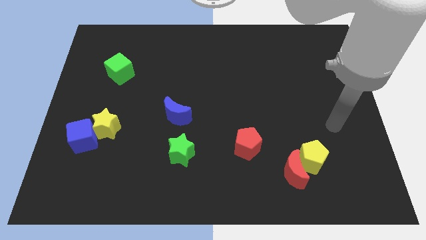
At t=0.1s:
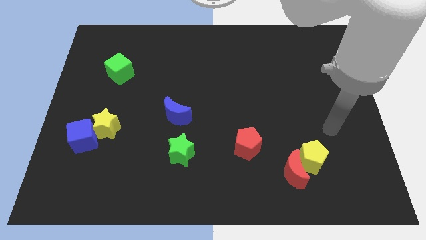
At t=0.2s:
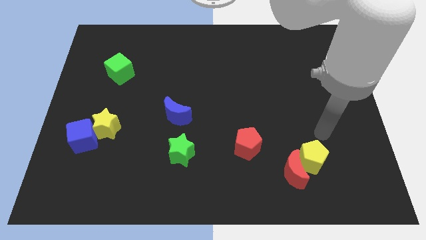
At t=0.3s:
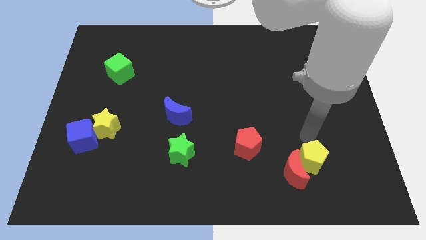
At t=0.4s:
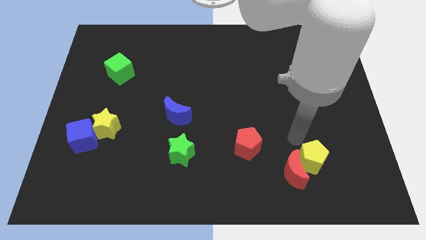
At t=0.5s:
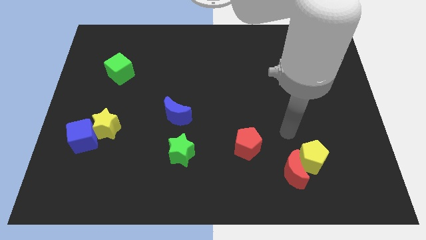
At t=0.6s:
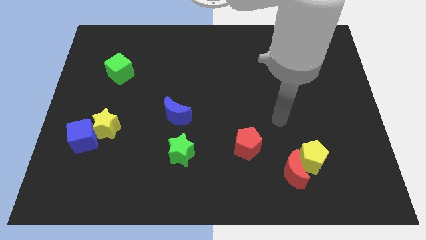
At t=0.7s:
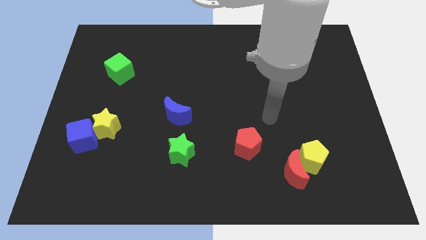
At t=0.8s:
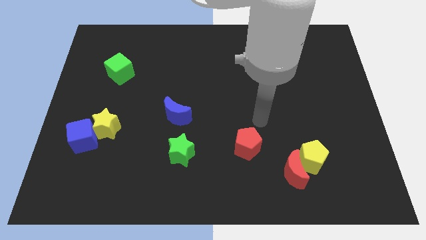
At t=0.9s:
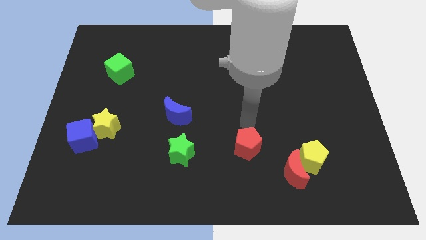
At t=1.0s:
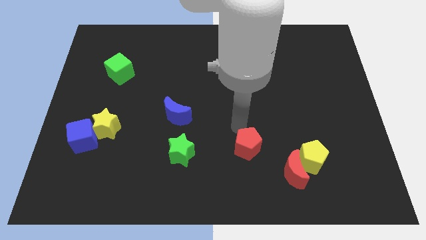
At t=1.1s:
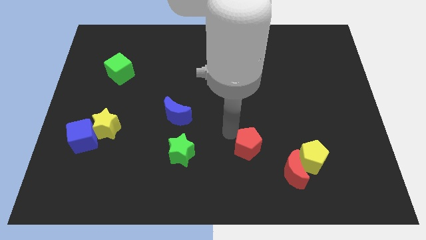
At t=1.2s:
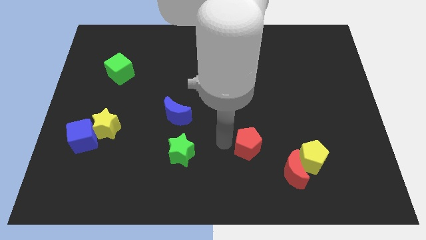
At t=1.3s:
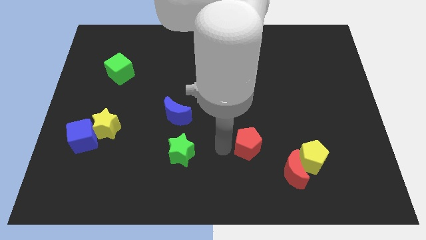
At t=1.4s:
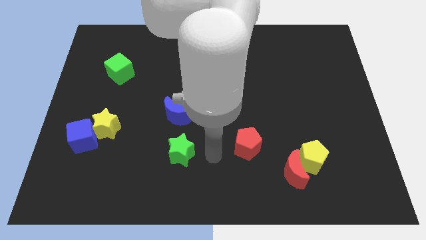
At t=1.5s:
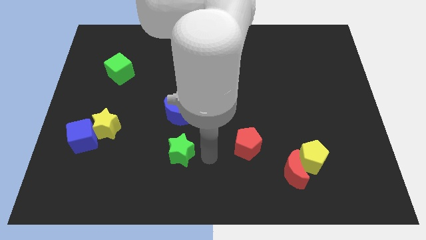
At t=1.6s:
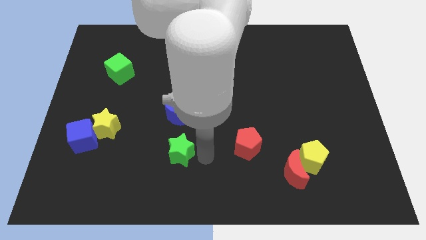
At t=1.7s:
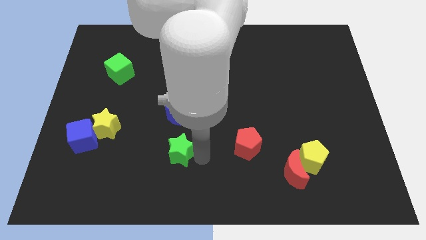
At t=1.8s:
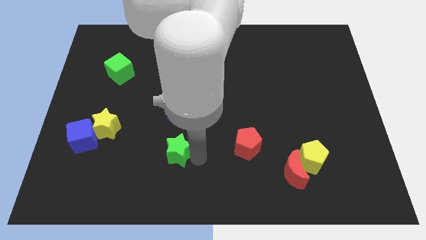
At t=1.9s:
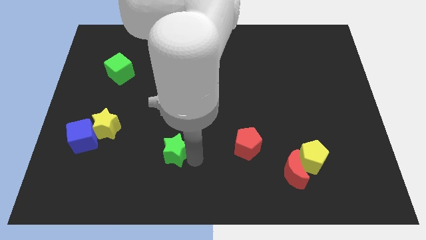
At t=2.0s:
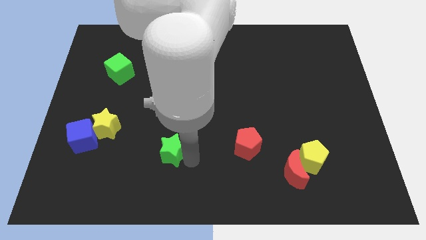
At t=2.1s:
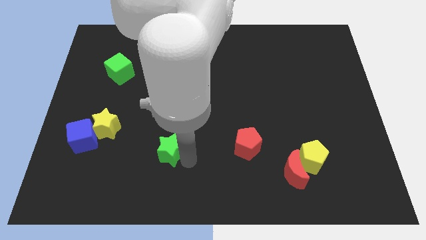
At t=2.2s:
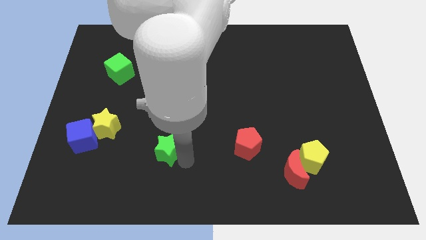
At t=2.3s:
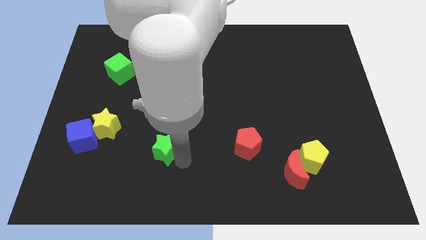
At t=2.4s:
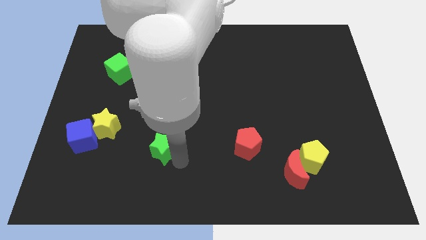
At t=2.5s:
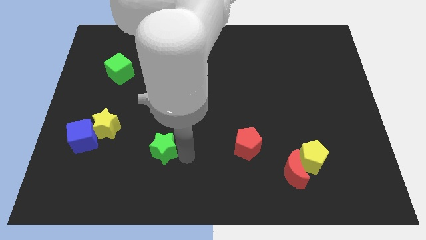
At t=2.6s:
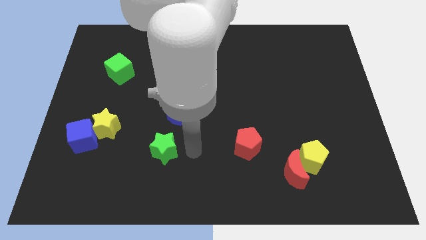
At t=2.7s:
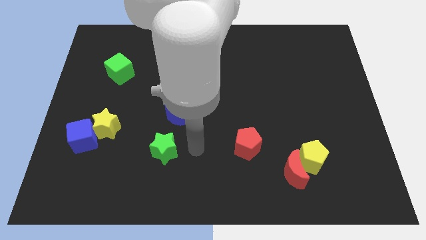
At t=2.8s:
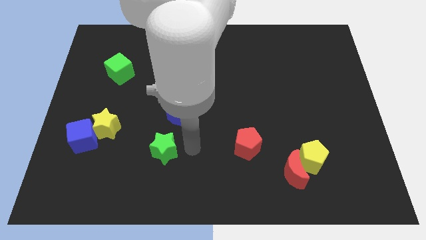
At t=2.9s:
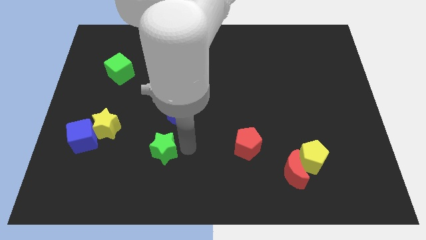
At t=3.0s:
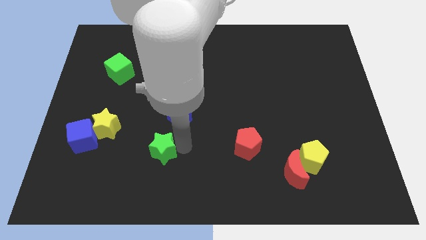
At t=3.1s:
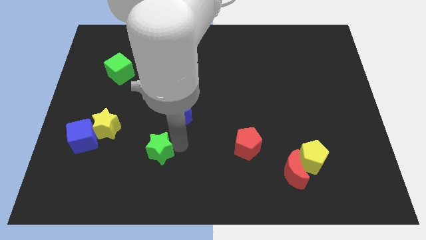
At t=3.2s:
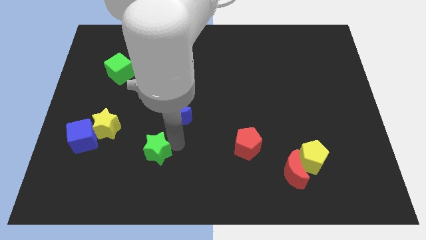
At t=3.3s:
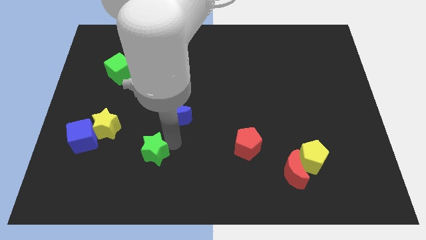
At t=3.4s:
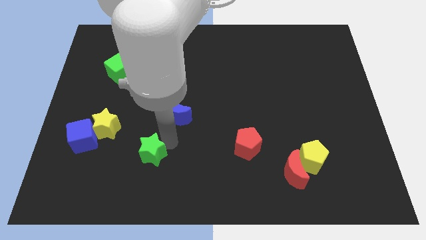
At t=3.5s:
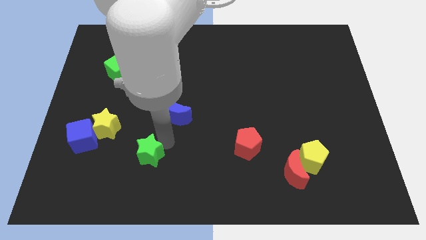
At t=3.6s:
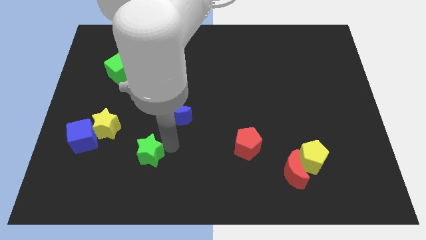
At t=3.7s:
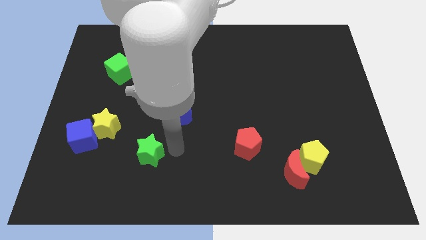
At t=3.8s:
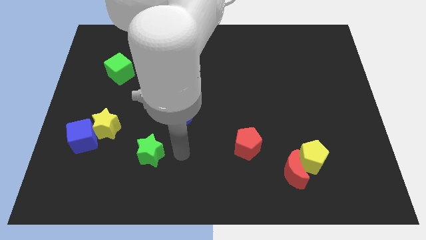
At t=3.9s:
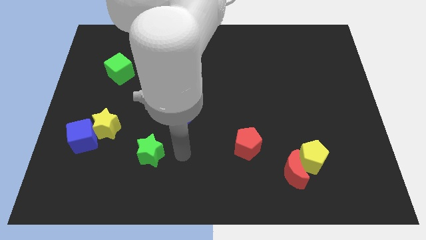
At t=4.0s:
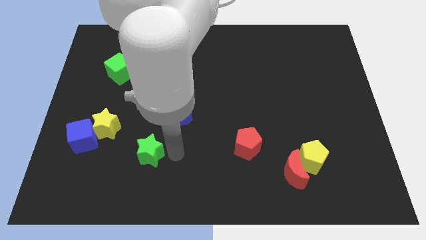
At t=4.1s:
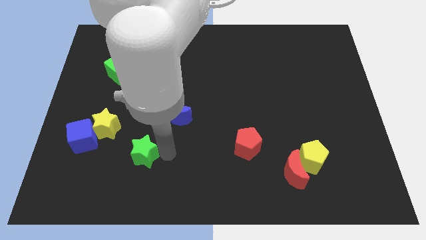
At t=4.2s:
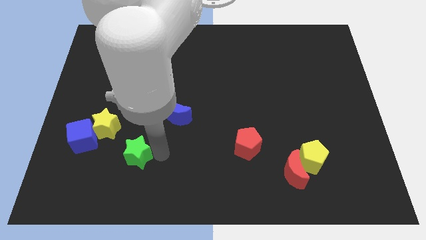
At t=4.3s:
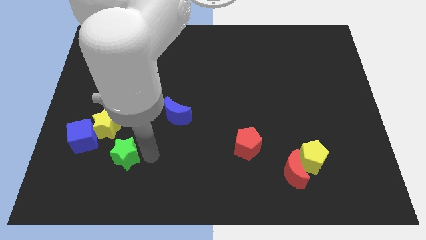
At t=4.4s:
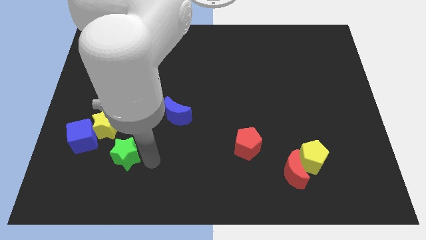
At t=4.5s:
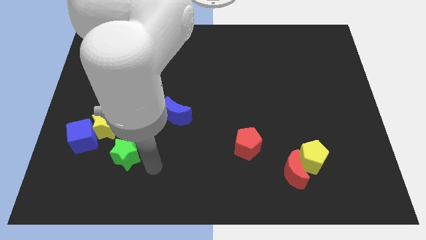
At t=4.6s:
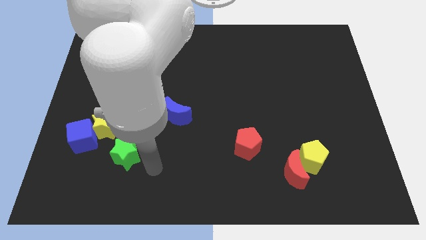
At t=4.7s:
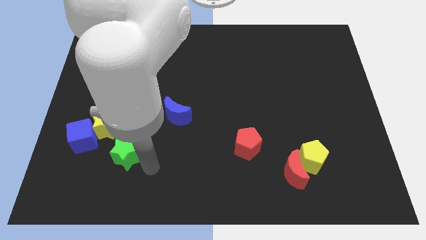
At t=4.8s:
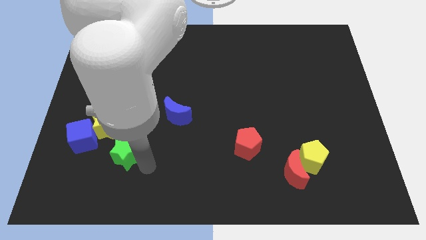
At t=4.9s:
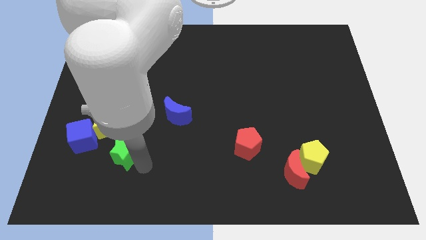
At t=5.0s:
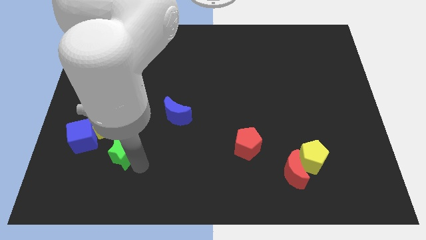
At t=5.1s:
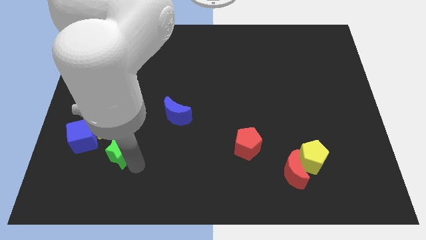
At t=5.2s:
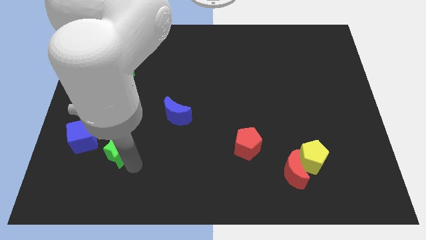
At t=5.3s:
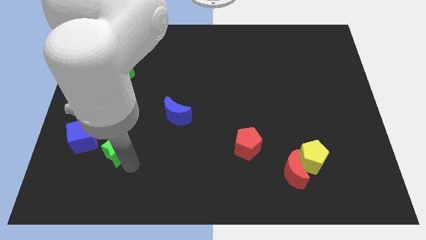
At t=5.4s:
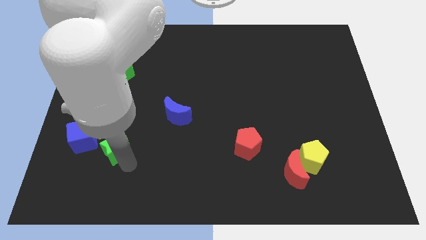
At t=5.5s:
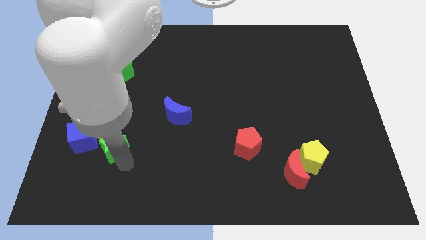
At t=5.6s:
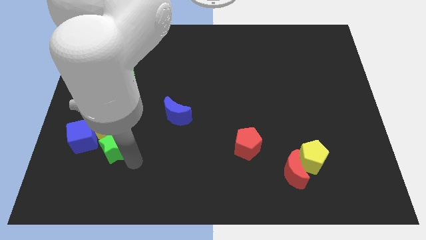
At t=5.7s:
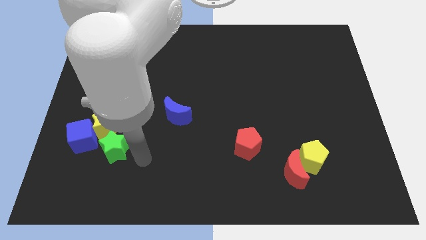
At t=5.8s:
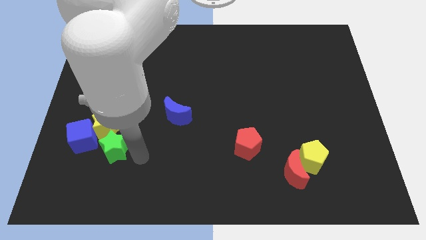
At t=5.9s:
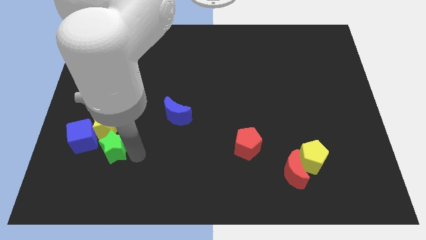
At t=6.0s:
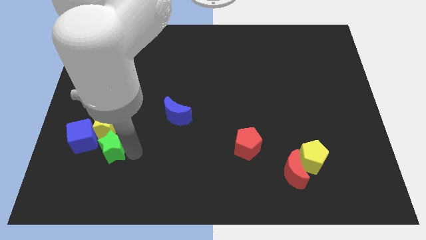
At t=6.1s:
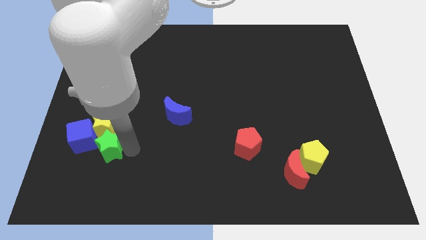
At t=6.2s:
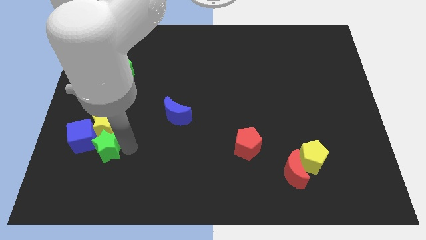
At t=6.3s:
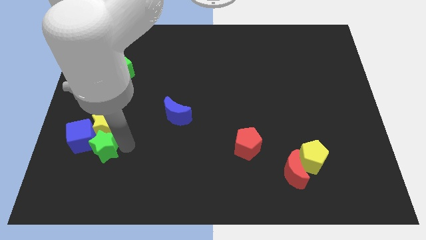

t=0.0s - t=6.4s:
put the green star towards the blue cube

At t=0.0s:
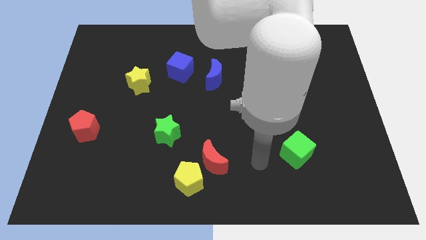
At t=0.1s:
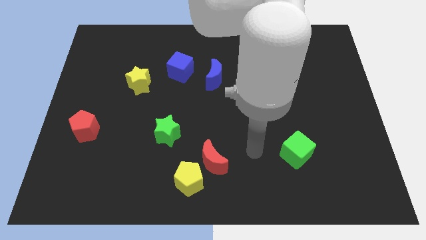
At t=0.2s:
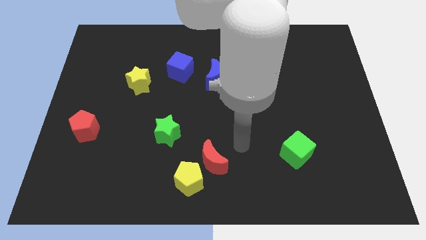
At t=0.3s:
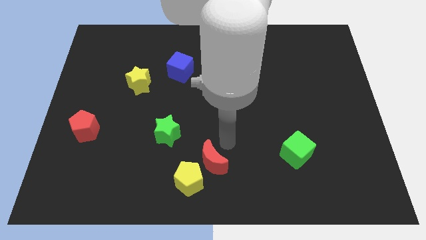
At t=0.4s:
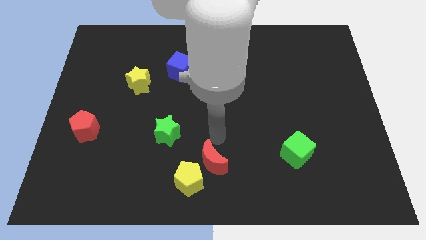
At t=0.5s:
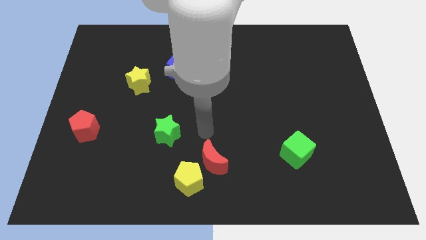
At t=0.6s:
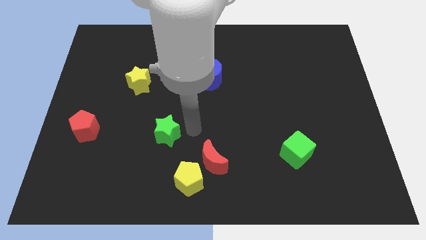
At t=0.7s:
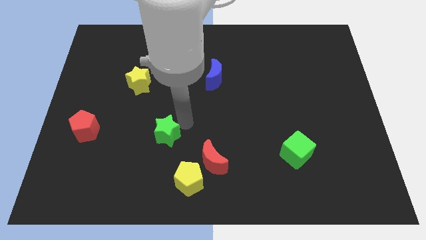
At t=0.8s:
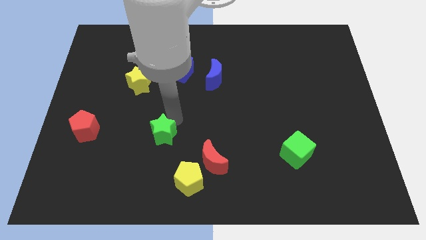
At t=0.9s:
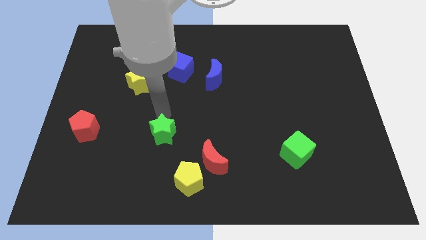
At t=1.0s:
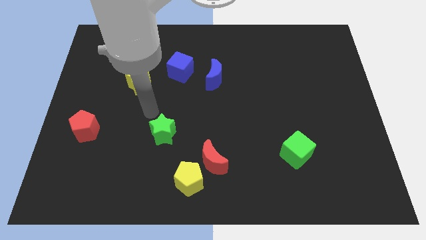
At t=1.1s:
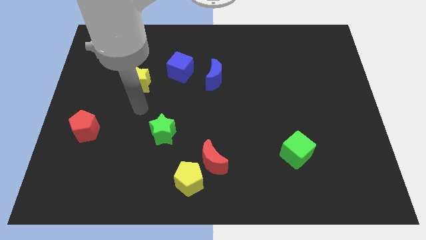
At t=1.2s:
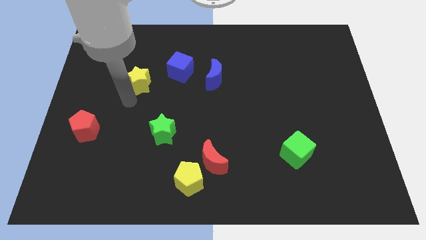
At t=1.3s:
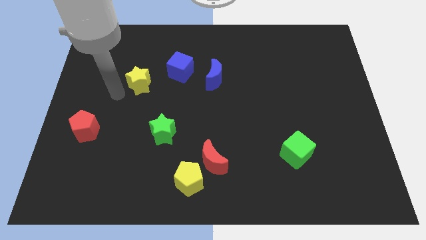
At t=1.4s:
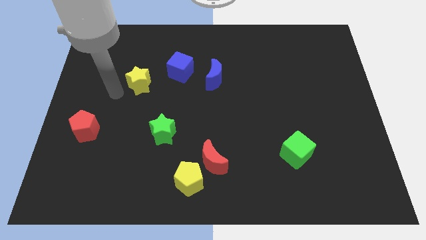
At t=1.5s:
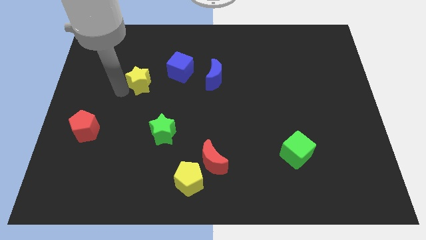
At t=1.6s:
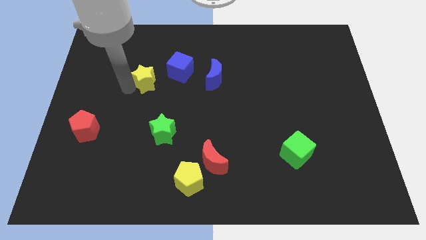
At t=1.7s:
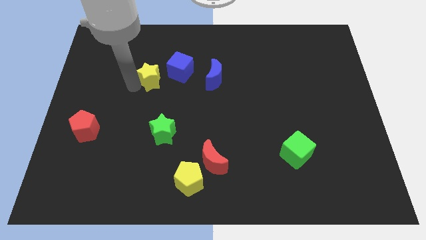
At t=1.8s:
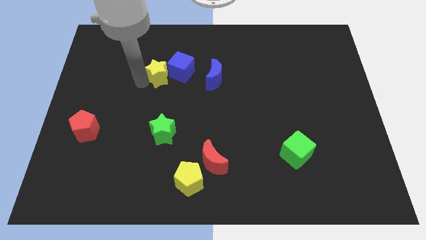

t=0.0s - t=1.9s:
put the yellow star next to the blue cube
